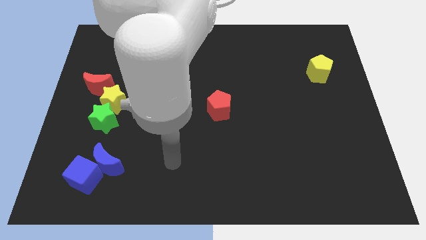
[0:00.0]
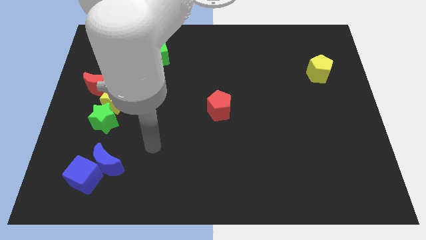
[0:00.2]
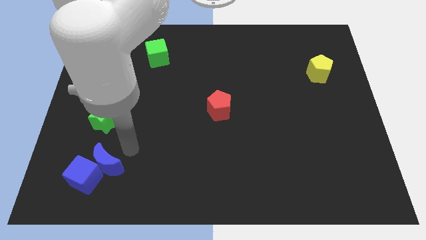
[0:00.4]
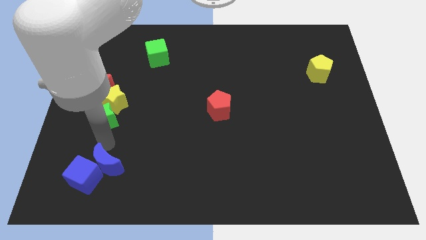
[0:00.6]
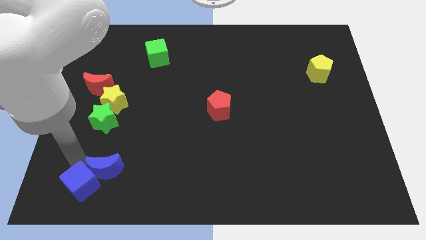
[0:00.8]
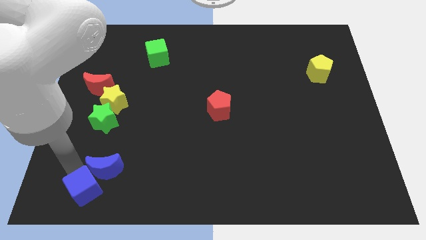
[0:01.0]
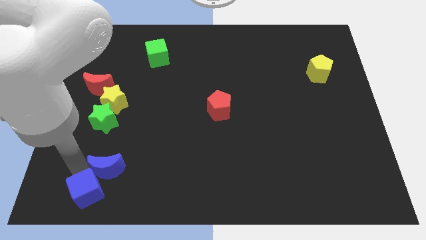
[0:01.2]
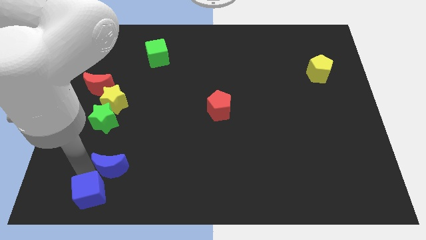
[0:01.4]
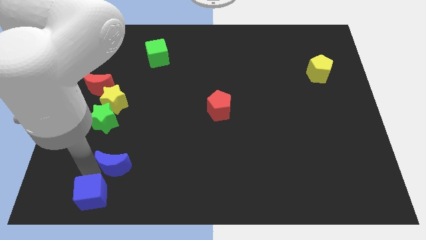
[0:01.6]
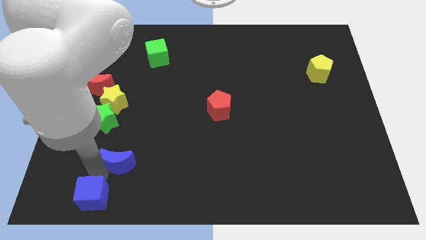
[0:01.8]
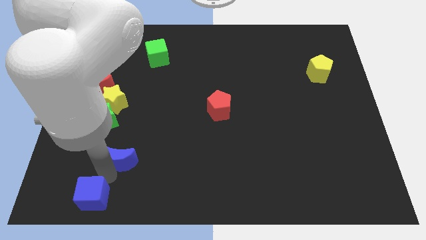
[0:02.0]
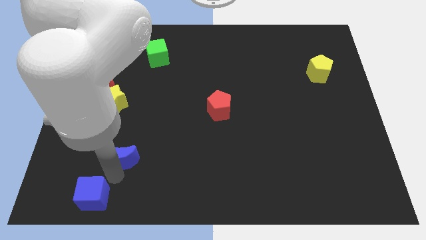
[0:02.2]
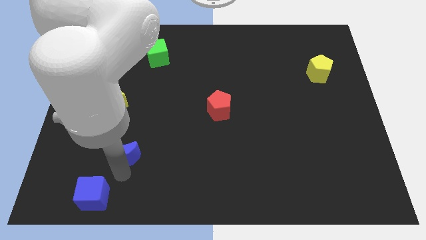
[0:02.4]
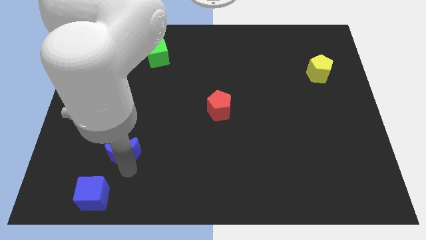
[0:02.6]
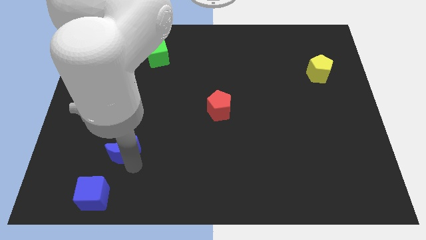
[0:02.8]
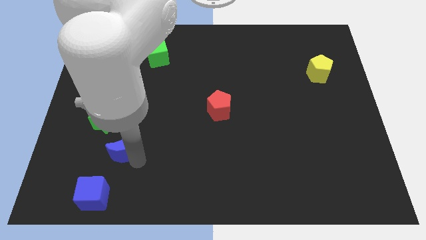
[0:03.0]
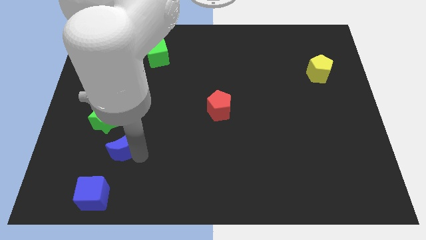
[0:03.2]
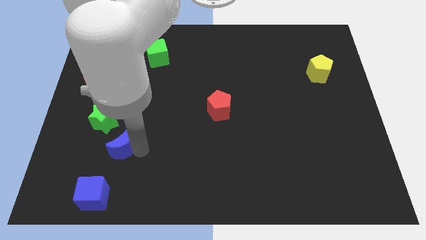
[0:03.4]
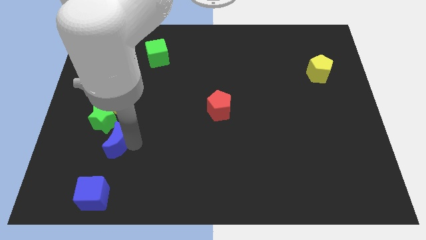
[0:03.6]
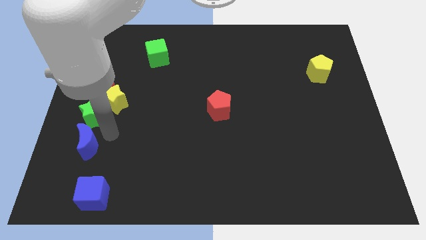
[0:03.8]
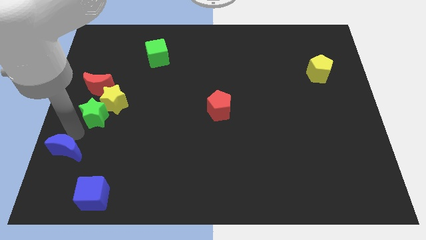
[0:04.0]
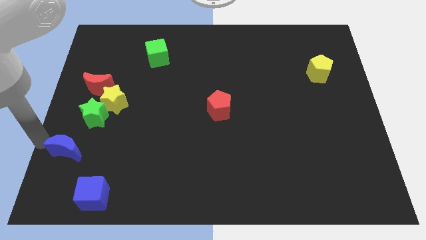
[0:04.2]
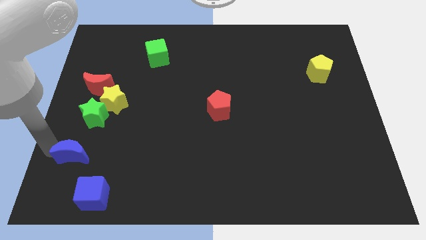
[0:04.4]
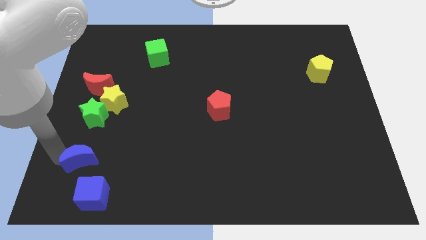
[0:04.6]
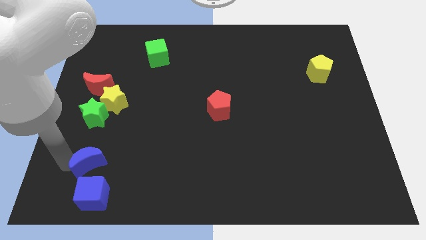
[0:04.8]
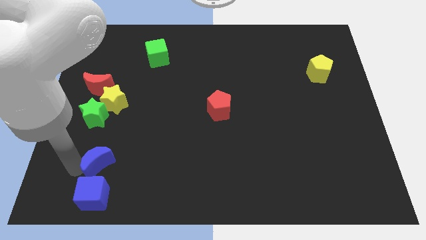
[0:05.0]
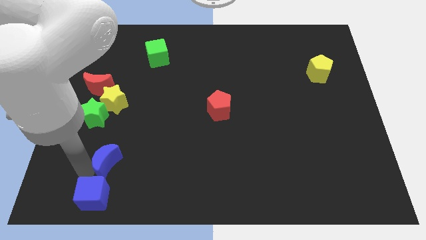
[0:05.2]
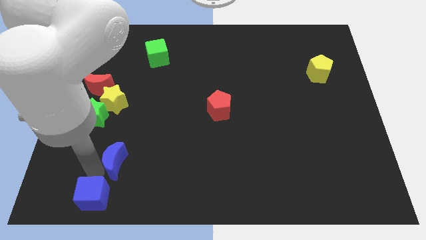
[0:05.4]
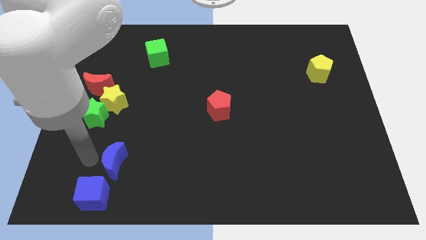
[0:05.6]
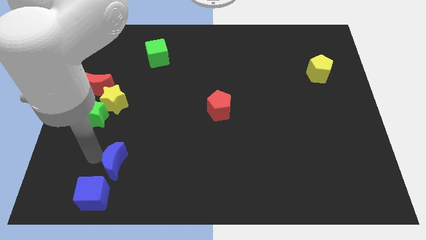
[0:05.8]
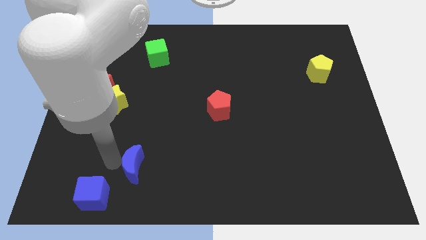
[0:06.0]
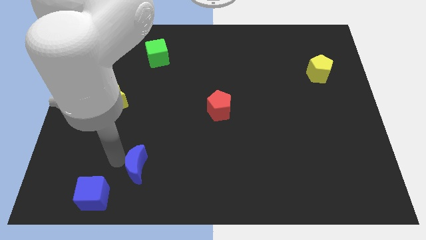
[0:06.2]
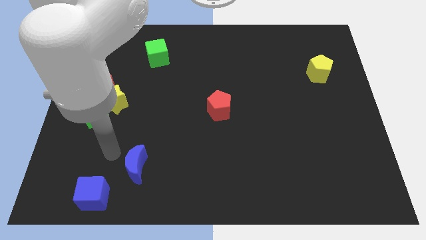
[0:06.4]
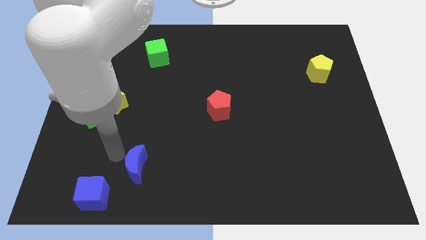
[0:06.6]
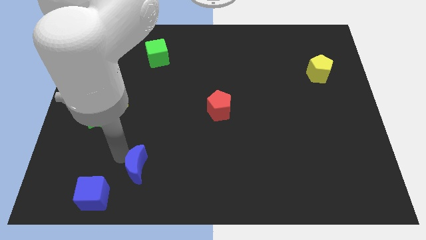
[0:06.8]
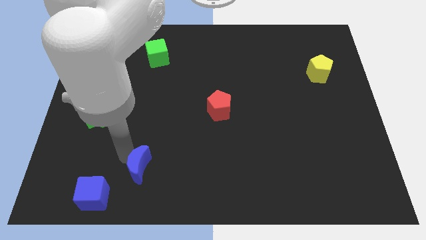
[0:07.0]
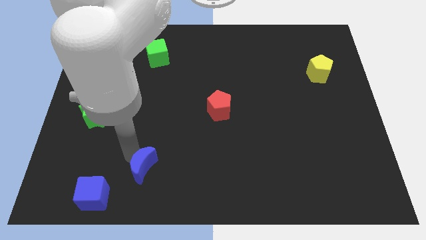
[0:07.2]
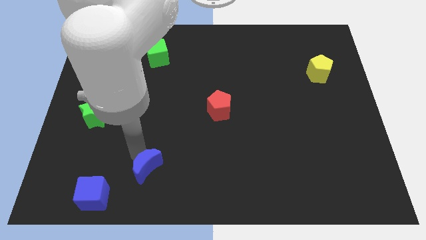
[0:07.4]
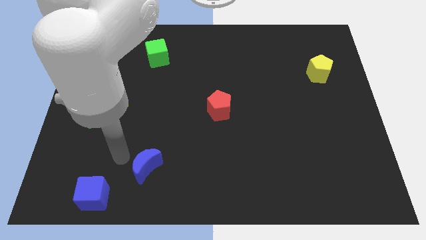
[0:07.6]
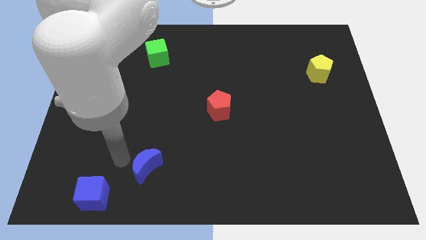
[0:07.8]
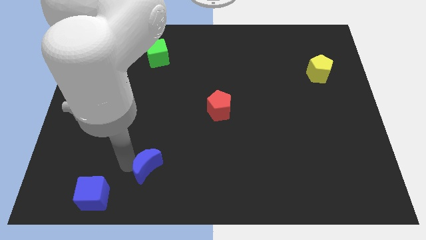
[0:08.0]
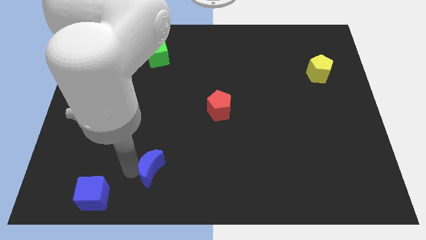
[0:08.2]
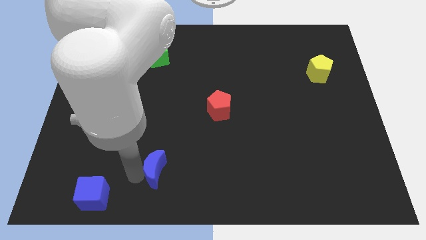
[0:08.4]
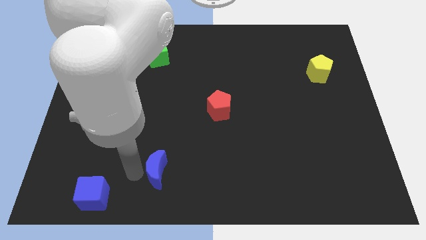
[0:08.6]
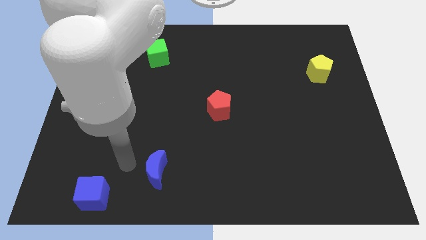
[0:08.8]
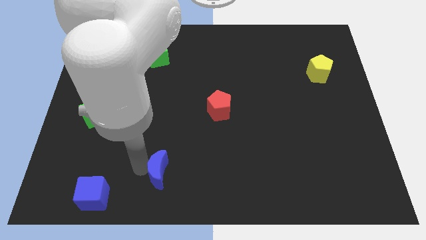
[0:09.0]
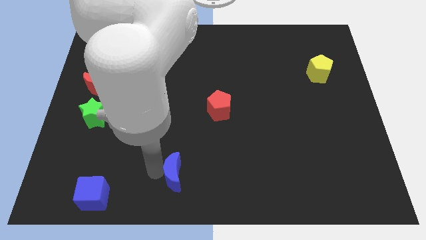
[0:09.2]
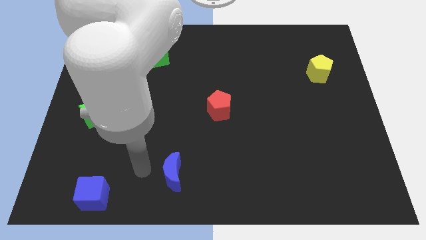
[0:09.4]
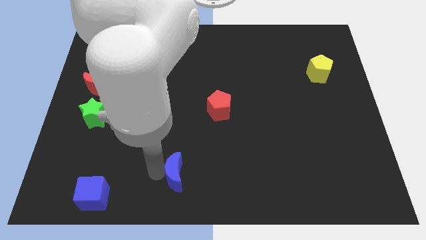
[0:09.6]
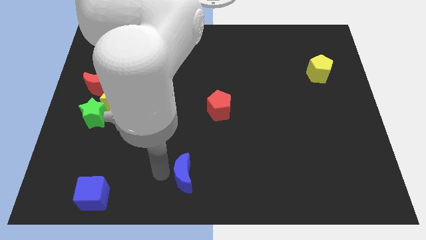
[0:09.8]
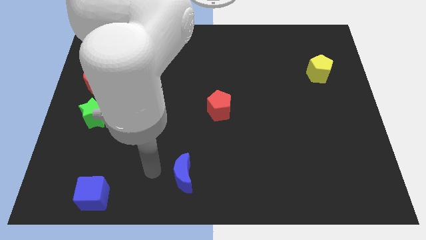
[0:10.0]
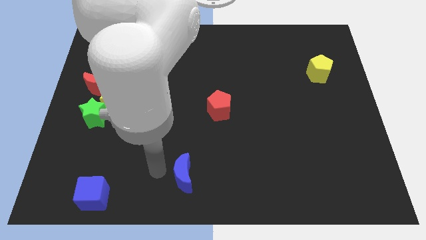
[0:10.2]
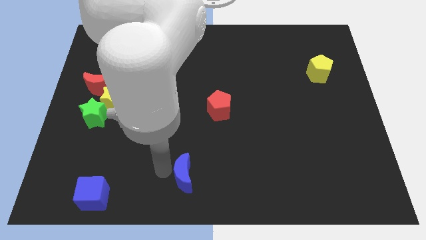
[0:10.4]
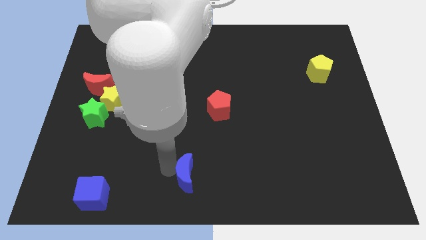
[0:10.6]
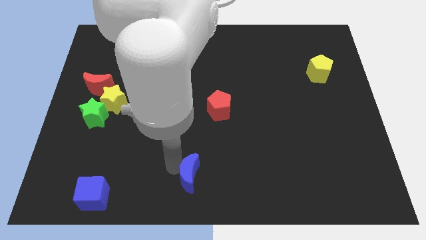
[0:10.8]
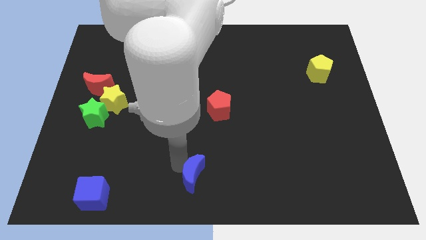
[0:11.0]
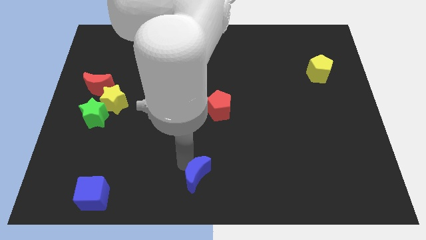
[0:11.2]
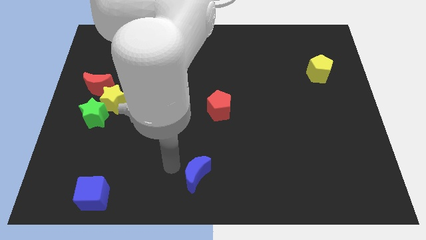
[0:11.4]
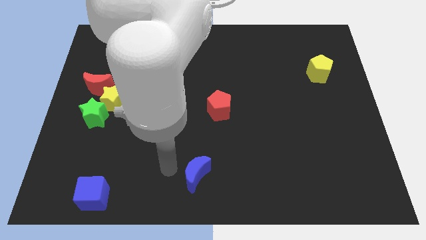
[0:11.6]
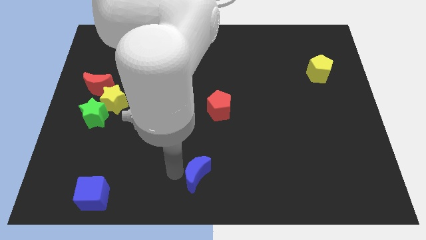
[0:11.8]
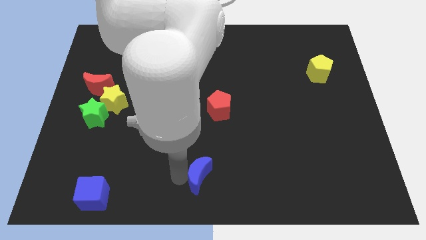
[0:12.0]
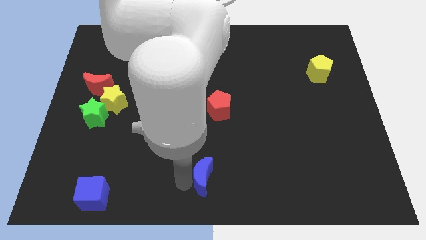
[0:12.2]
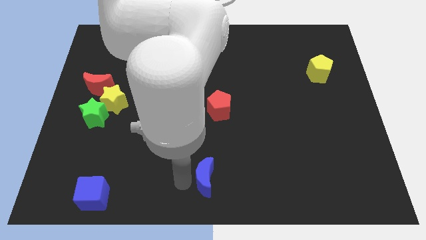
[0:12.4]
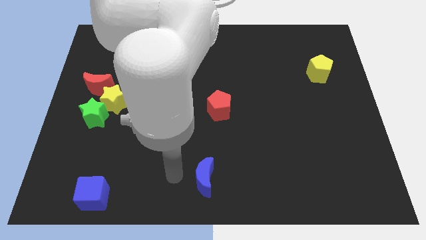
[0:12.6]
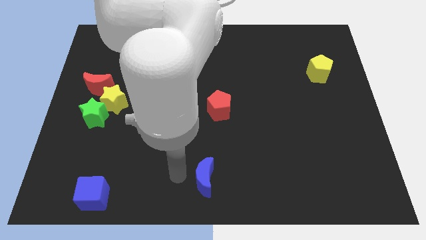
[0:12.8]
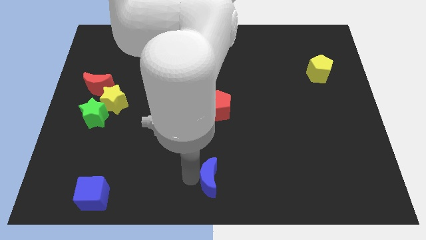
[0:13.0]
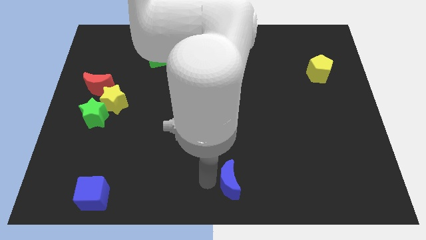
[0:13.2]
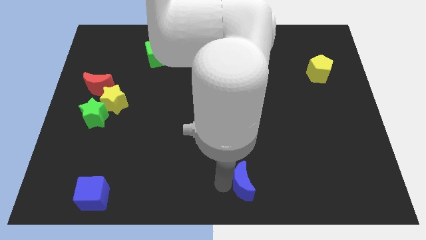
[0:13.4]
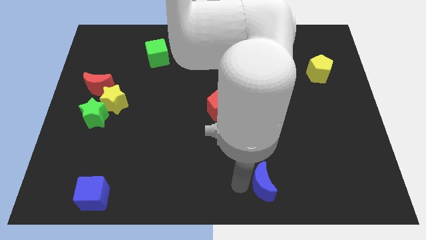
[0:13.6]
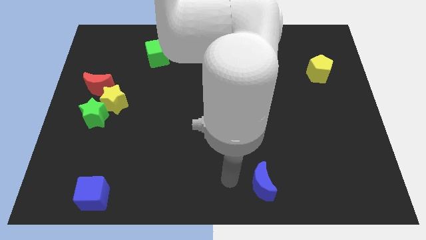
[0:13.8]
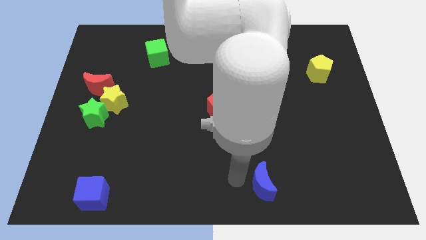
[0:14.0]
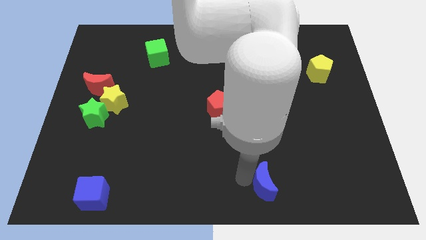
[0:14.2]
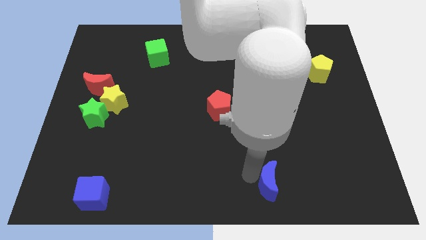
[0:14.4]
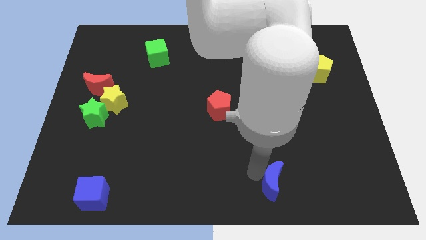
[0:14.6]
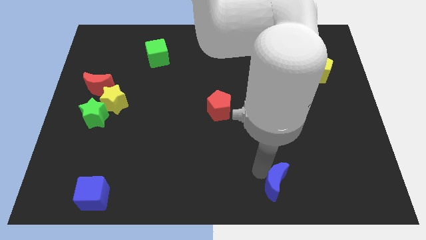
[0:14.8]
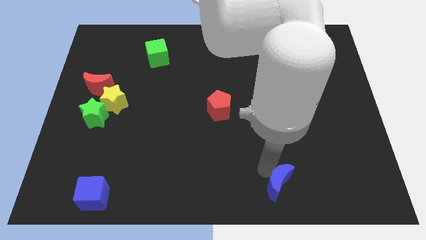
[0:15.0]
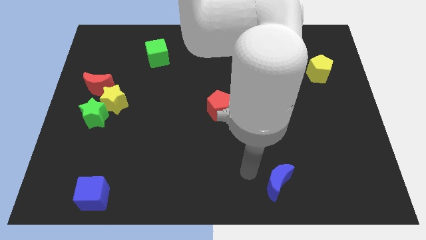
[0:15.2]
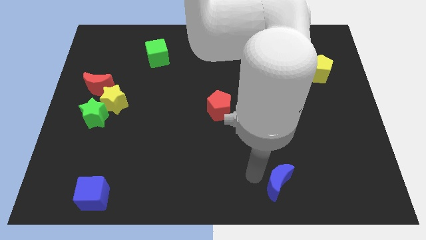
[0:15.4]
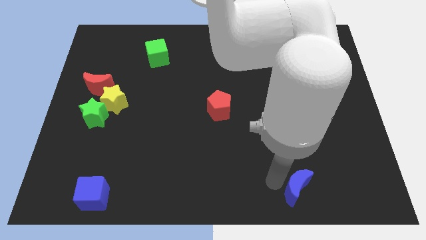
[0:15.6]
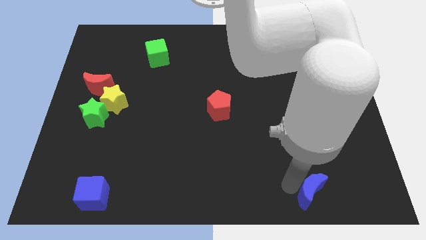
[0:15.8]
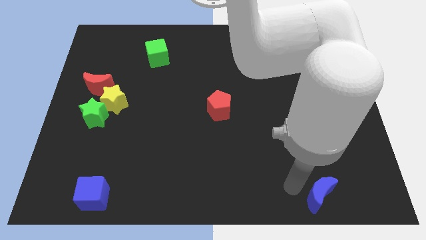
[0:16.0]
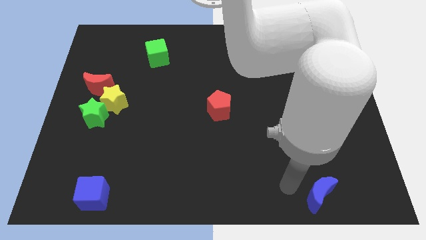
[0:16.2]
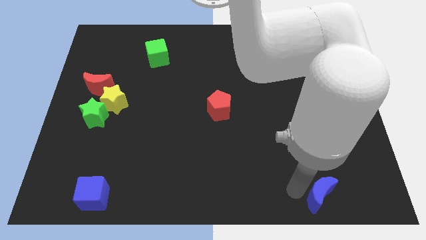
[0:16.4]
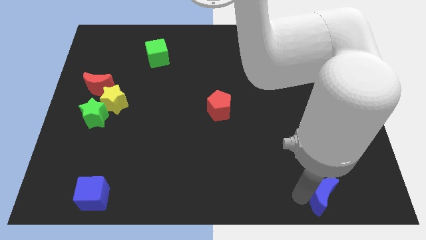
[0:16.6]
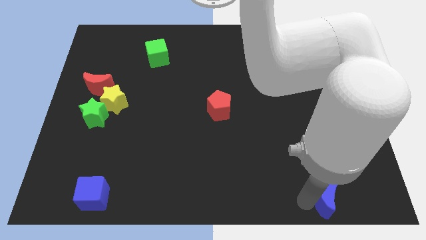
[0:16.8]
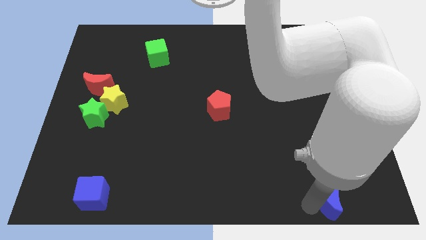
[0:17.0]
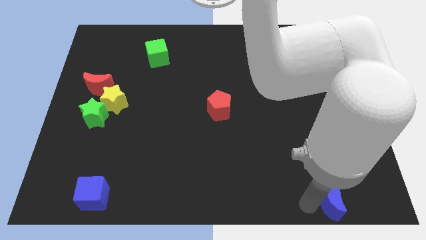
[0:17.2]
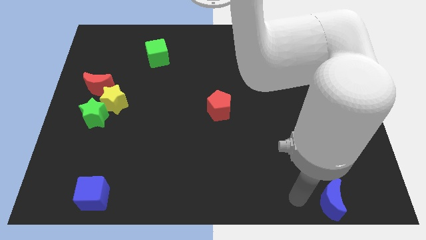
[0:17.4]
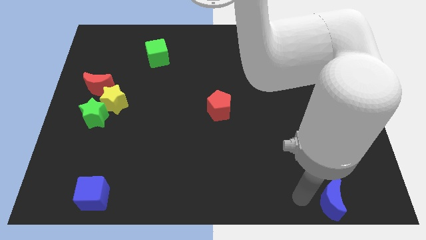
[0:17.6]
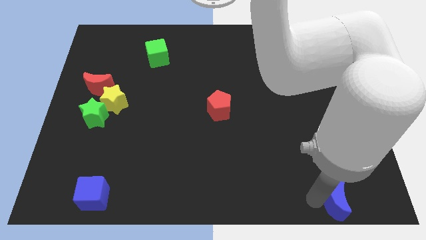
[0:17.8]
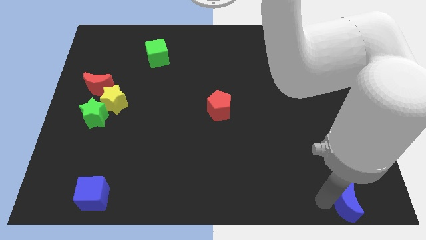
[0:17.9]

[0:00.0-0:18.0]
move the blue moon to the bottom right corner
